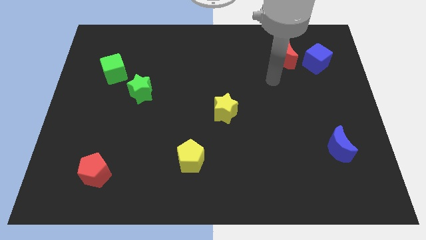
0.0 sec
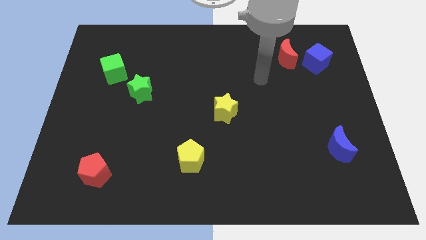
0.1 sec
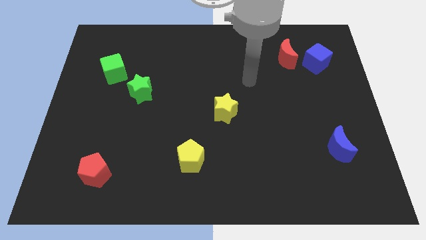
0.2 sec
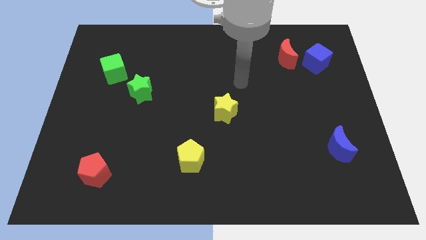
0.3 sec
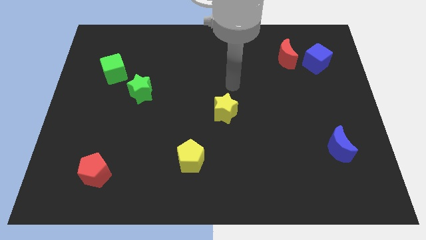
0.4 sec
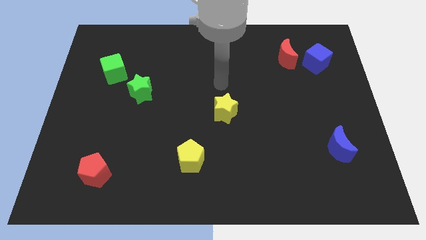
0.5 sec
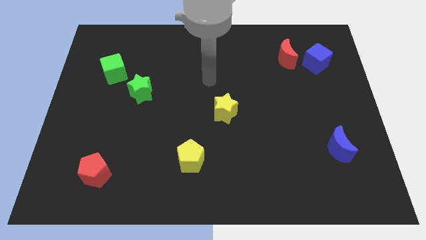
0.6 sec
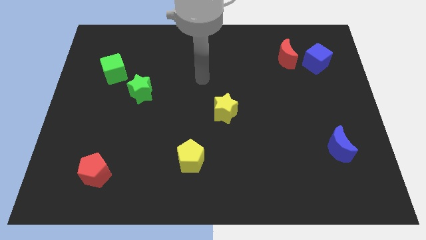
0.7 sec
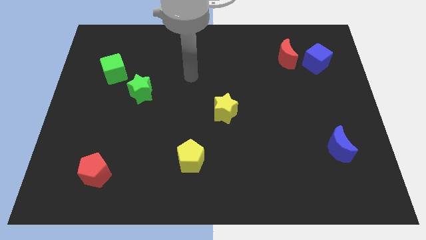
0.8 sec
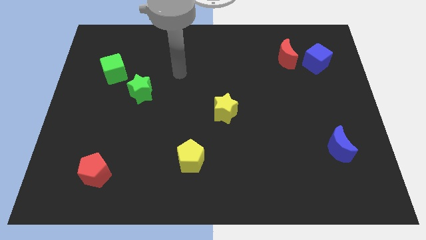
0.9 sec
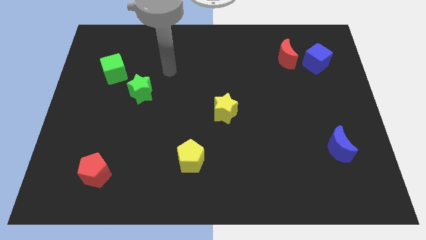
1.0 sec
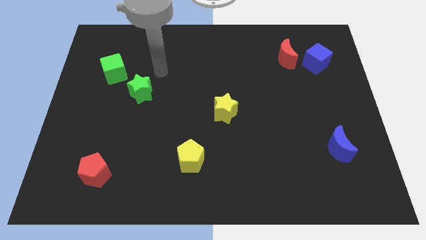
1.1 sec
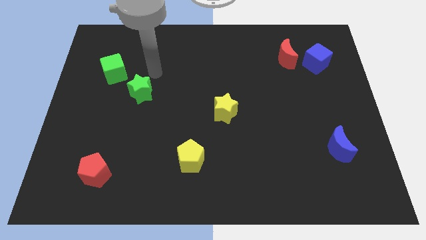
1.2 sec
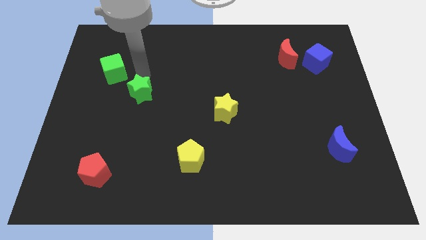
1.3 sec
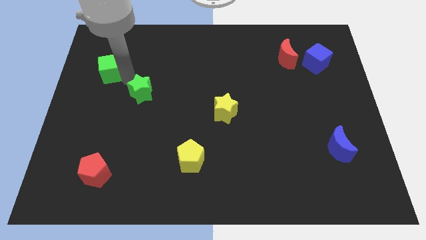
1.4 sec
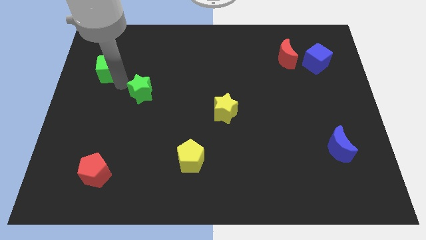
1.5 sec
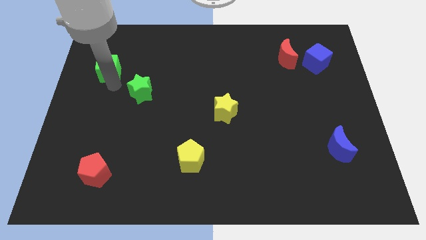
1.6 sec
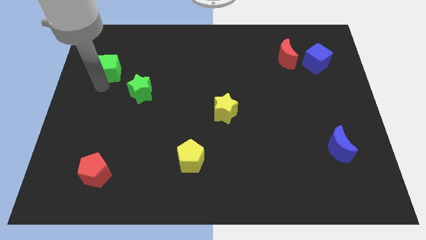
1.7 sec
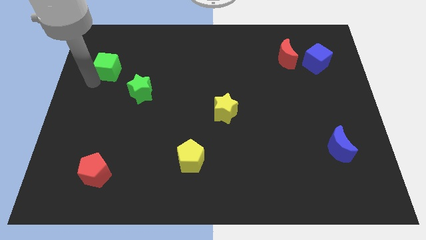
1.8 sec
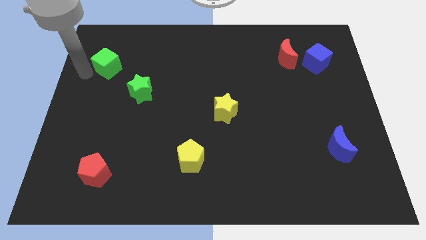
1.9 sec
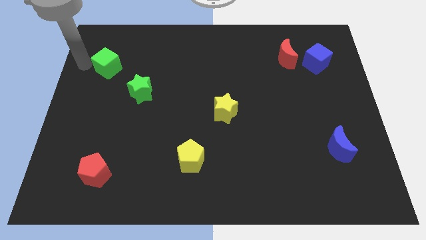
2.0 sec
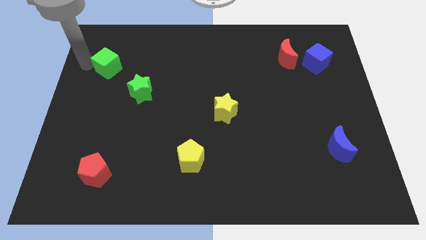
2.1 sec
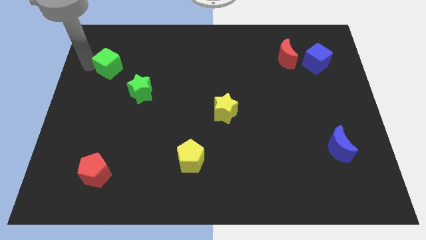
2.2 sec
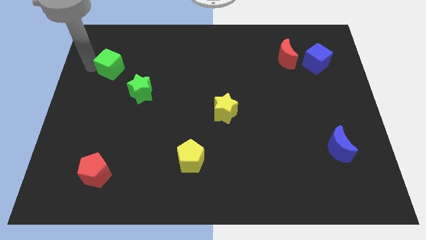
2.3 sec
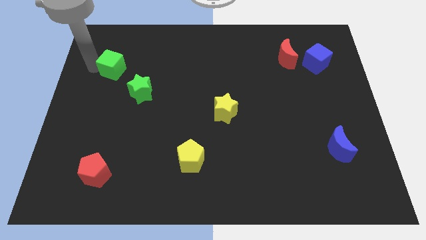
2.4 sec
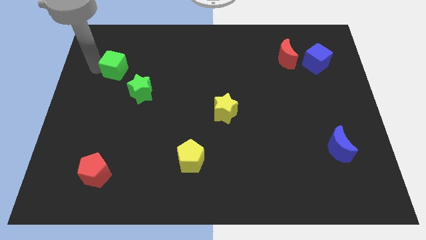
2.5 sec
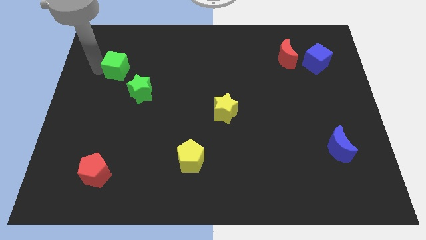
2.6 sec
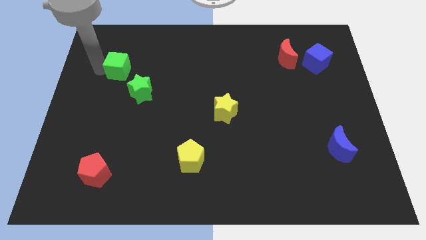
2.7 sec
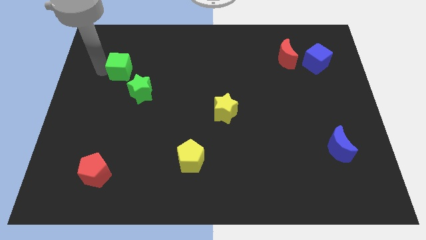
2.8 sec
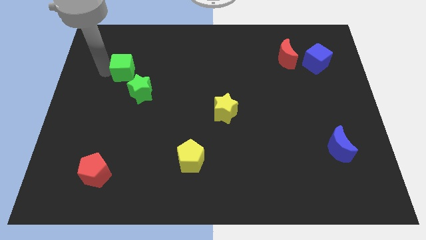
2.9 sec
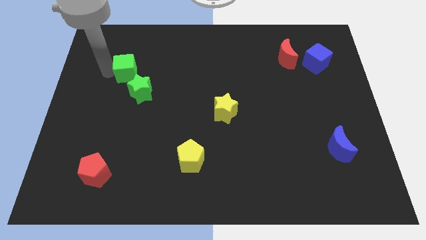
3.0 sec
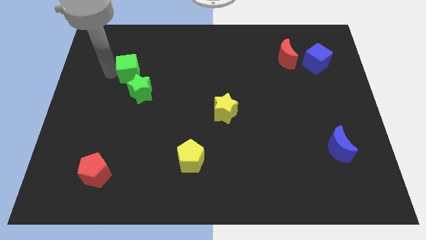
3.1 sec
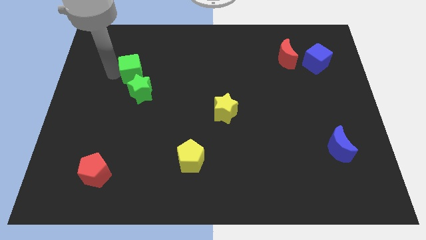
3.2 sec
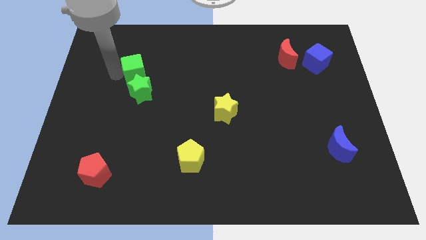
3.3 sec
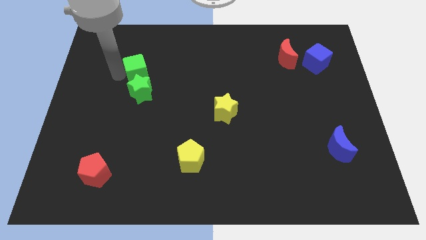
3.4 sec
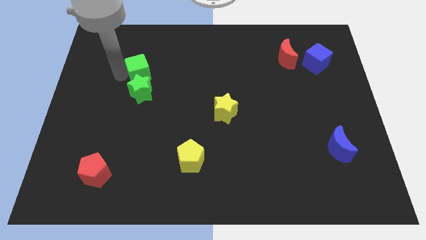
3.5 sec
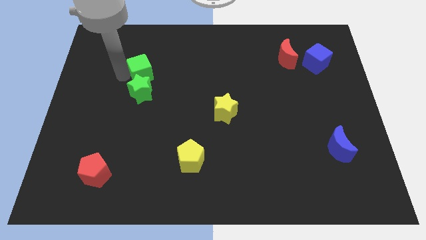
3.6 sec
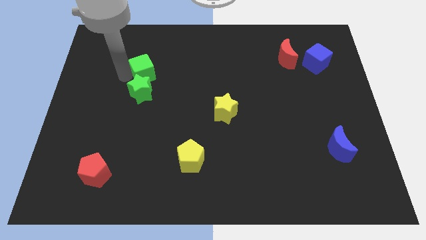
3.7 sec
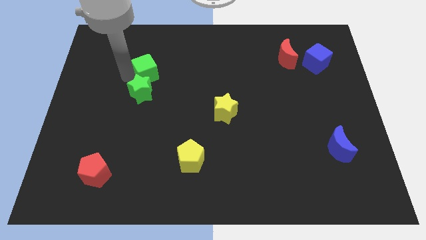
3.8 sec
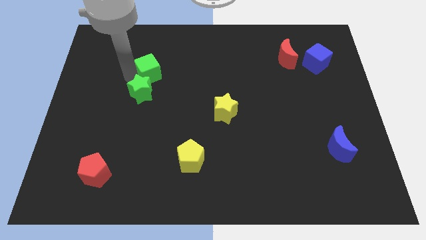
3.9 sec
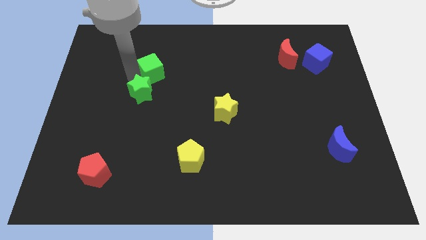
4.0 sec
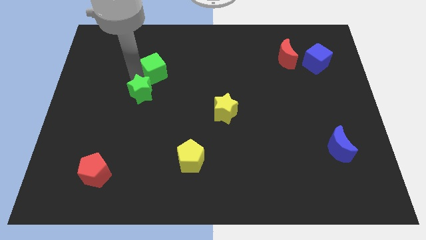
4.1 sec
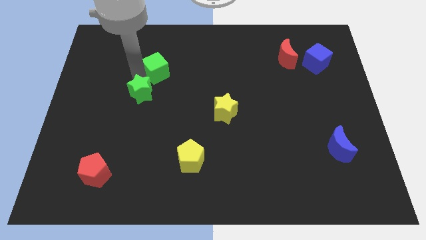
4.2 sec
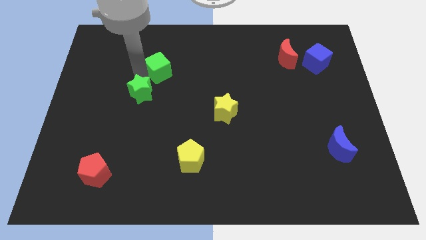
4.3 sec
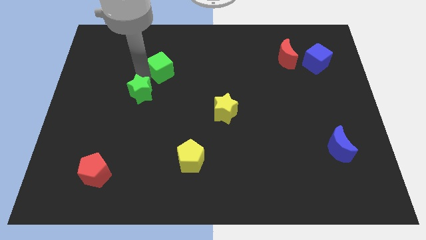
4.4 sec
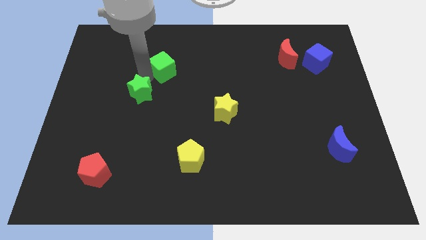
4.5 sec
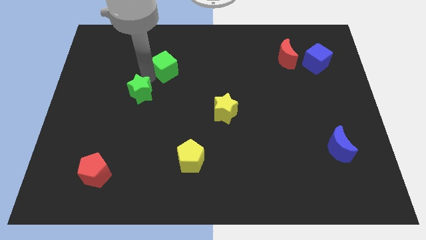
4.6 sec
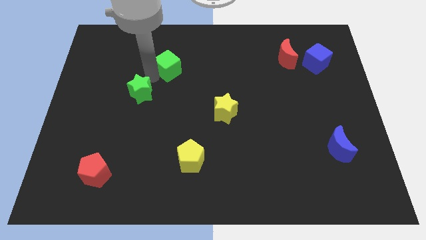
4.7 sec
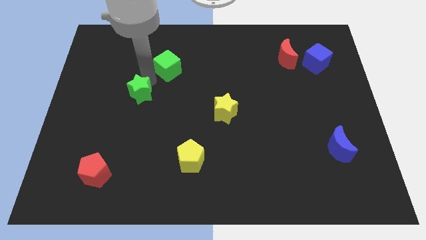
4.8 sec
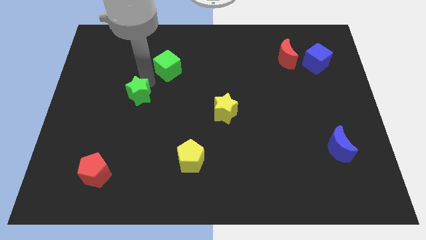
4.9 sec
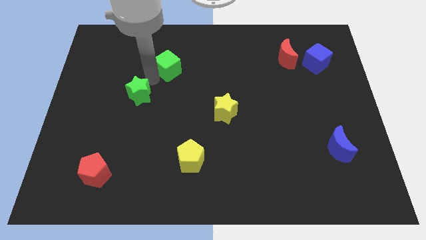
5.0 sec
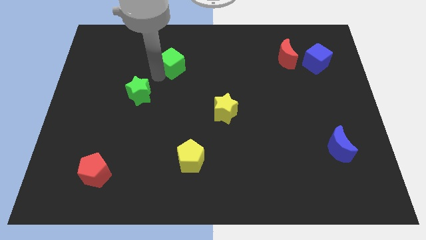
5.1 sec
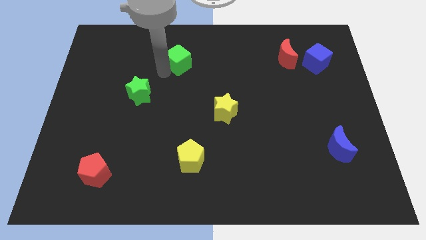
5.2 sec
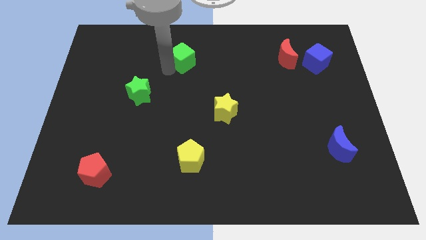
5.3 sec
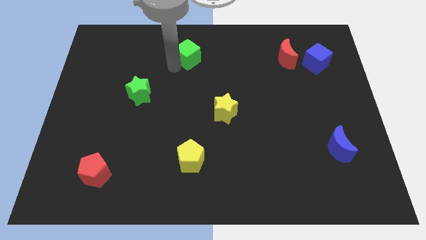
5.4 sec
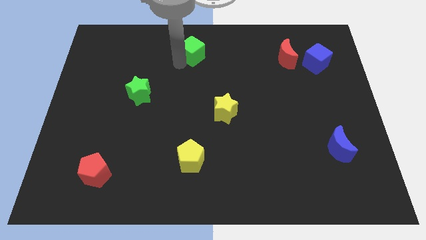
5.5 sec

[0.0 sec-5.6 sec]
put the green cube to the top side
